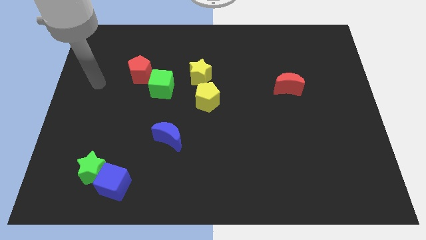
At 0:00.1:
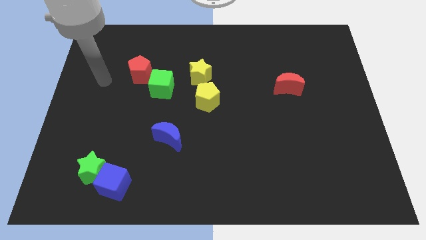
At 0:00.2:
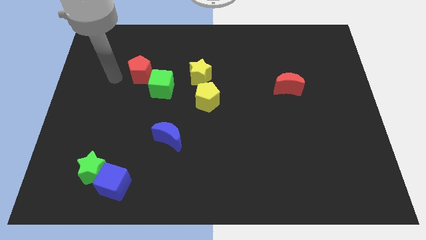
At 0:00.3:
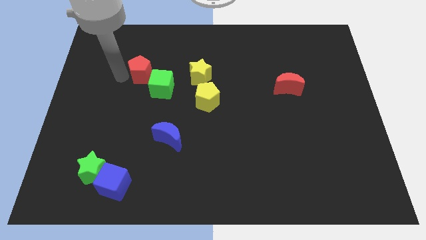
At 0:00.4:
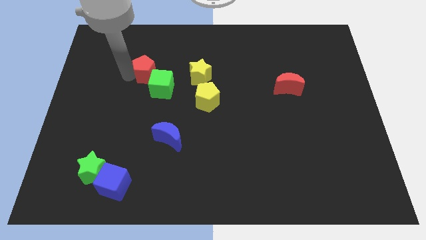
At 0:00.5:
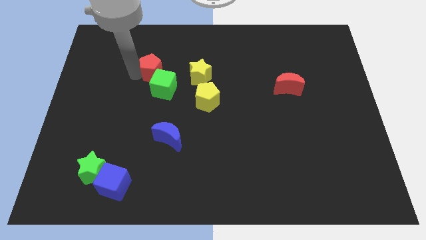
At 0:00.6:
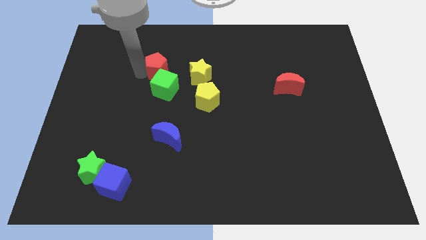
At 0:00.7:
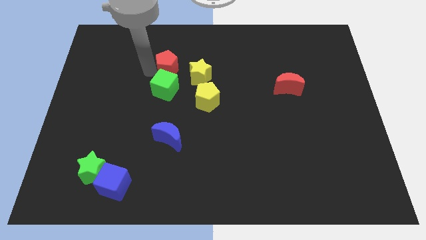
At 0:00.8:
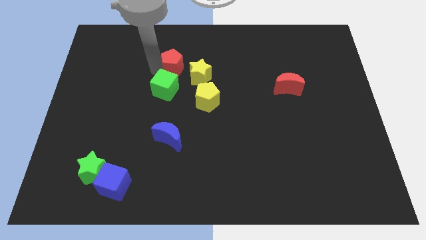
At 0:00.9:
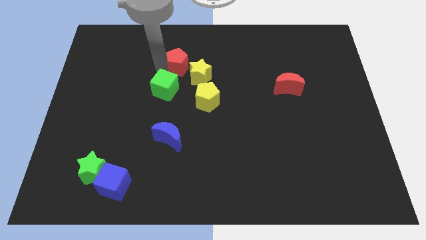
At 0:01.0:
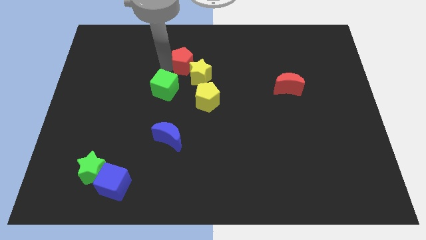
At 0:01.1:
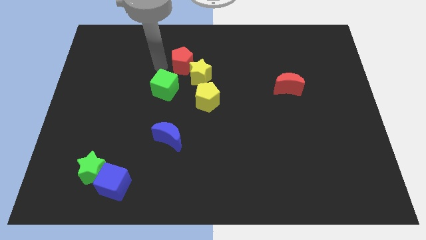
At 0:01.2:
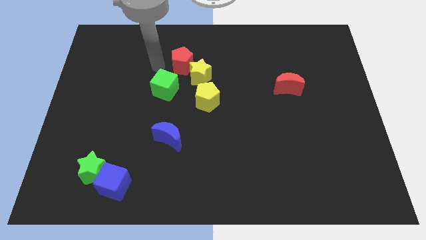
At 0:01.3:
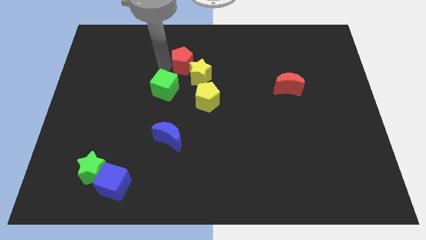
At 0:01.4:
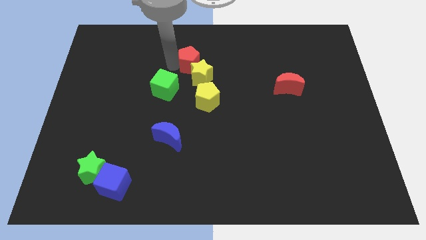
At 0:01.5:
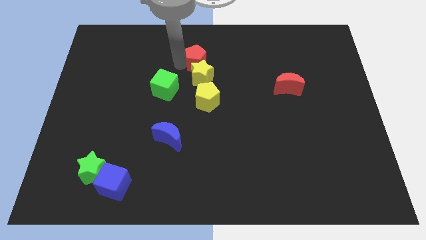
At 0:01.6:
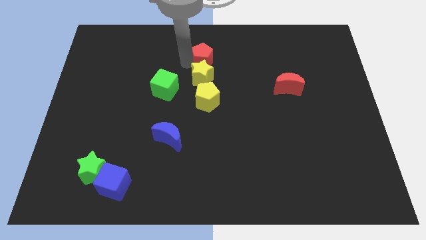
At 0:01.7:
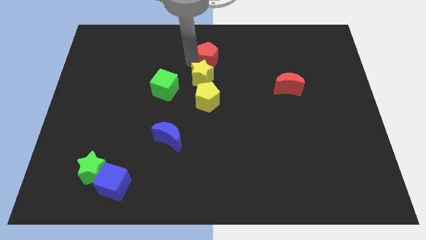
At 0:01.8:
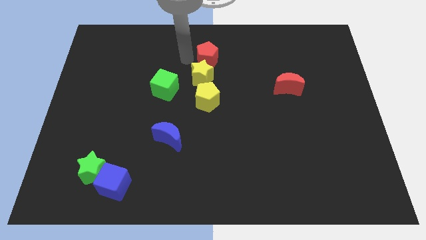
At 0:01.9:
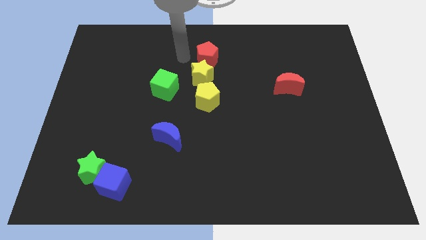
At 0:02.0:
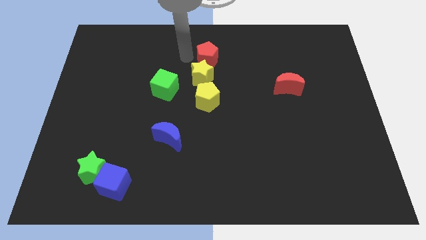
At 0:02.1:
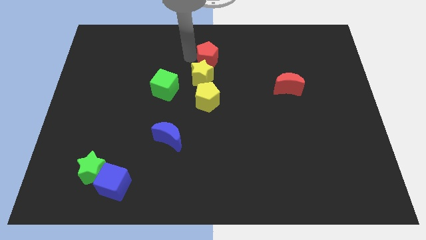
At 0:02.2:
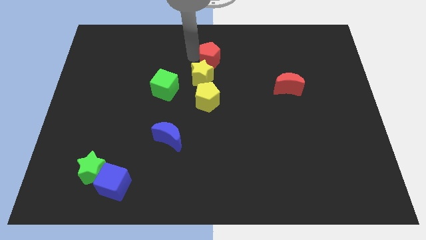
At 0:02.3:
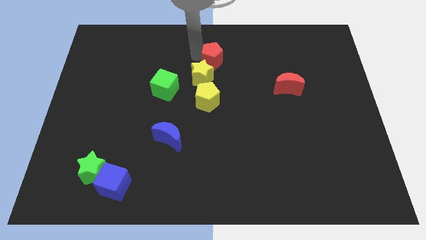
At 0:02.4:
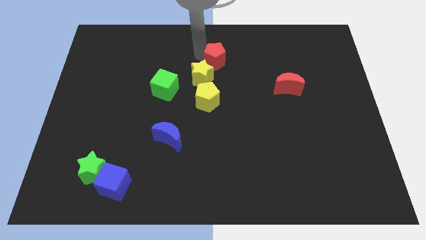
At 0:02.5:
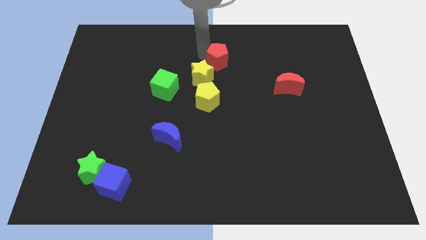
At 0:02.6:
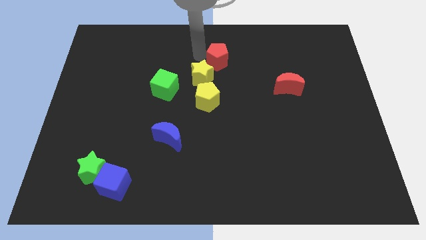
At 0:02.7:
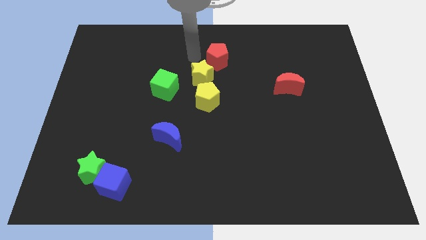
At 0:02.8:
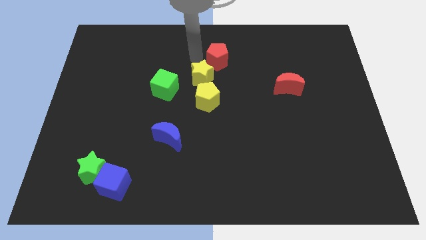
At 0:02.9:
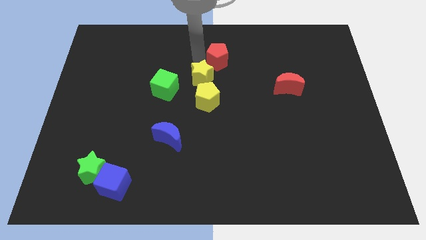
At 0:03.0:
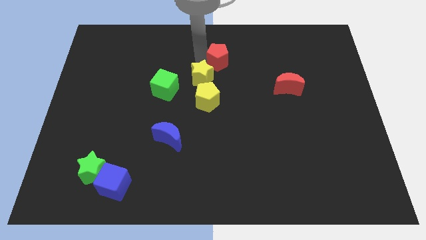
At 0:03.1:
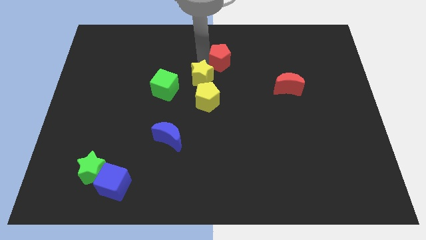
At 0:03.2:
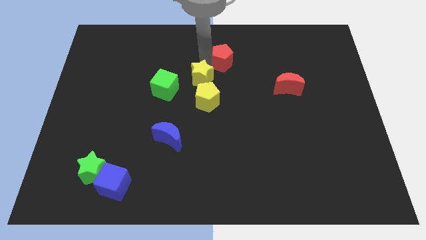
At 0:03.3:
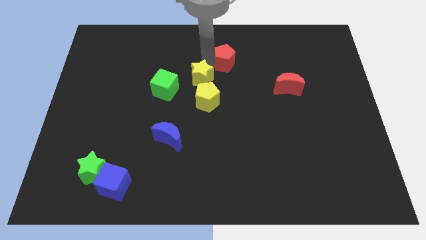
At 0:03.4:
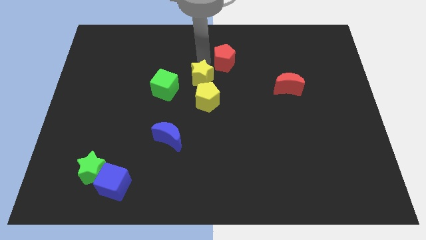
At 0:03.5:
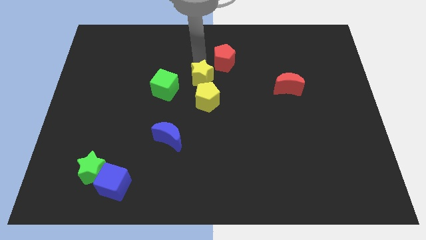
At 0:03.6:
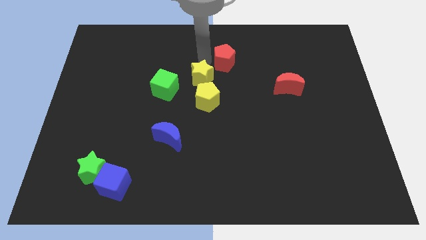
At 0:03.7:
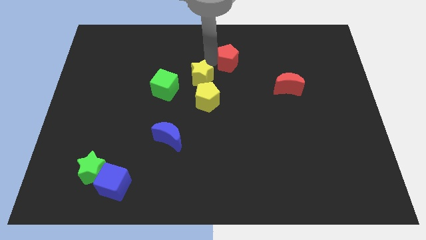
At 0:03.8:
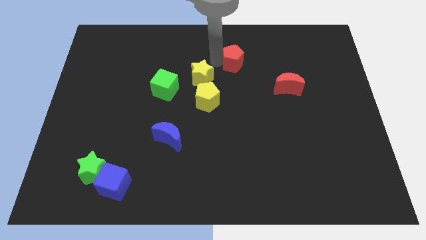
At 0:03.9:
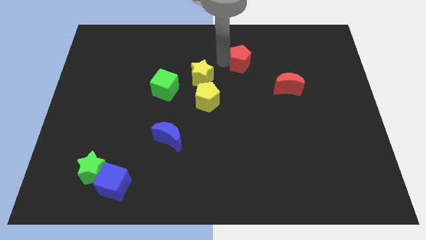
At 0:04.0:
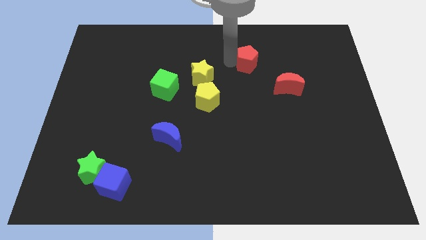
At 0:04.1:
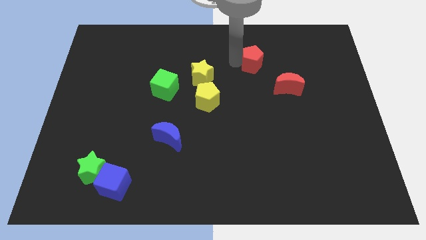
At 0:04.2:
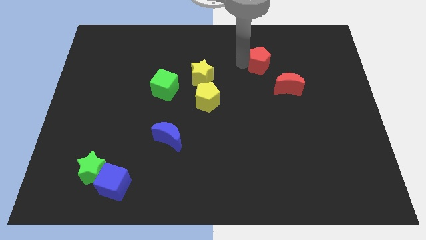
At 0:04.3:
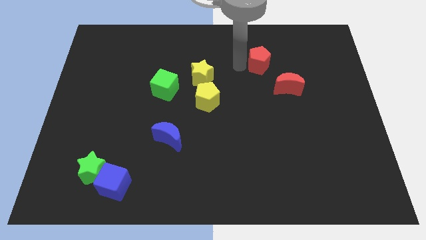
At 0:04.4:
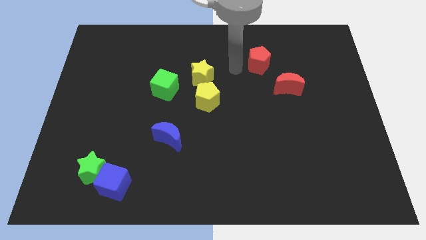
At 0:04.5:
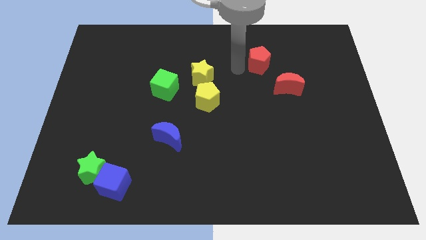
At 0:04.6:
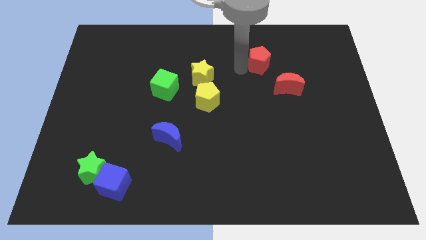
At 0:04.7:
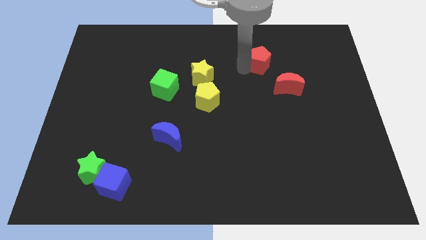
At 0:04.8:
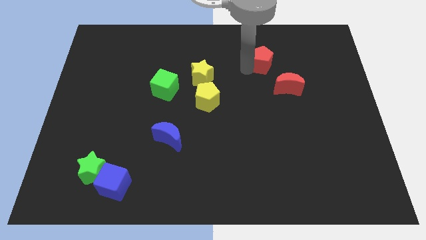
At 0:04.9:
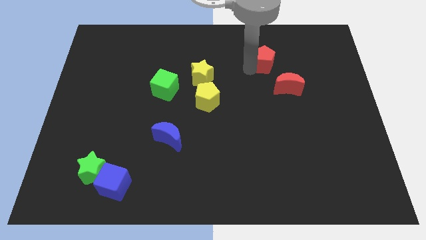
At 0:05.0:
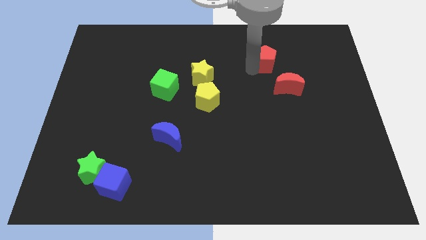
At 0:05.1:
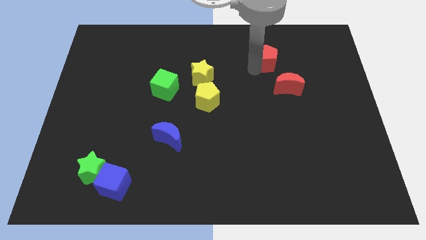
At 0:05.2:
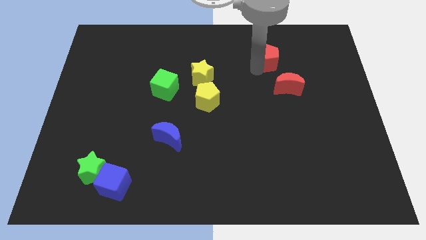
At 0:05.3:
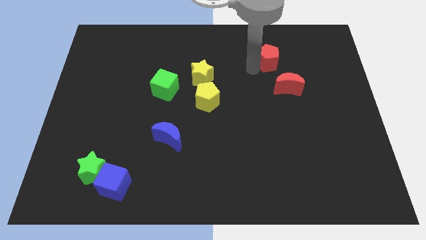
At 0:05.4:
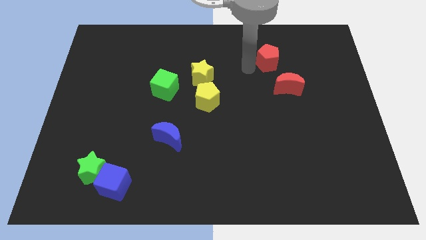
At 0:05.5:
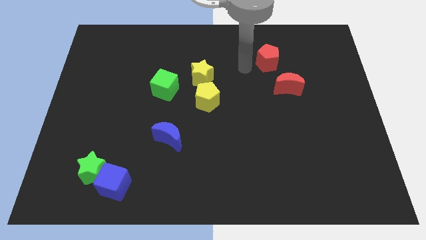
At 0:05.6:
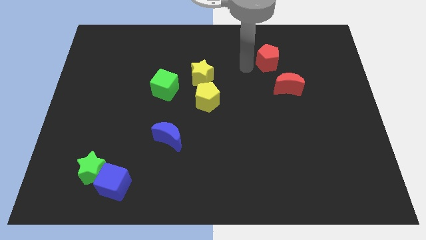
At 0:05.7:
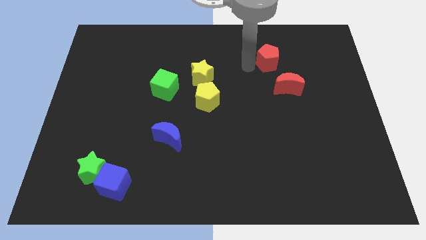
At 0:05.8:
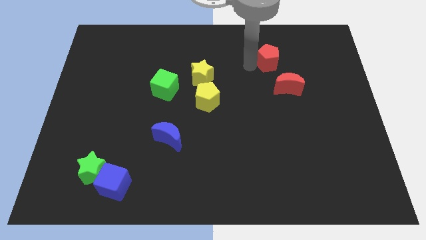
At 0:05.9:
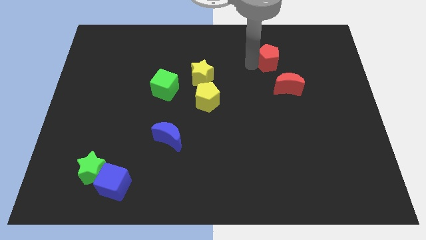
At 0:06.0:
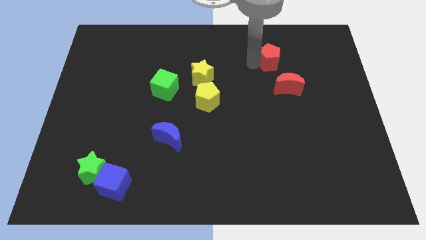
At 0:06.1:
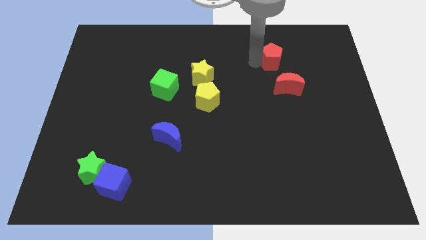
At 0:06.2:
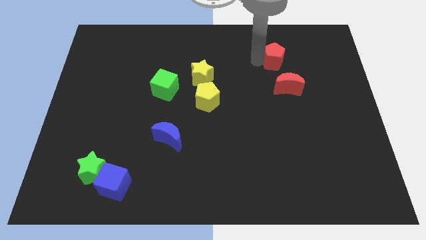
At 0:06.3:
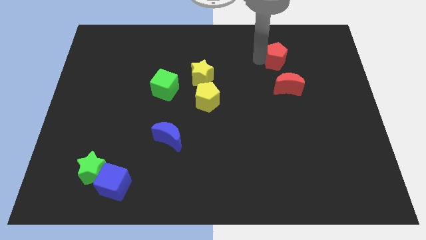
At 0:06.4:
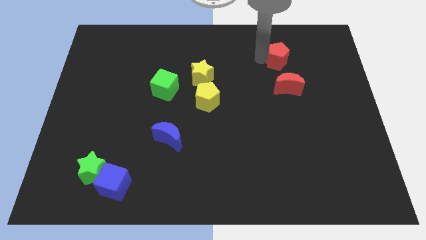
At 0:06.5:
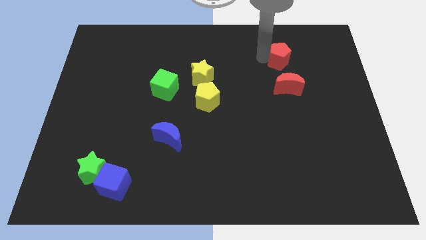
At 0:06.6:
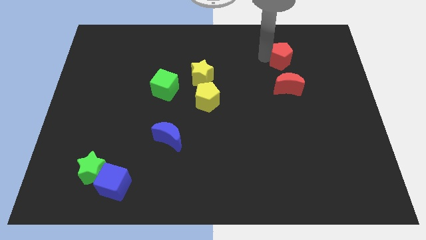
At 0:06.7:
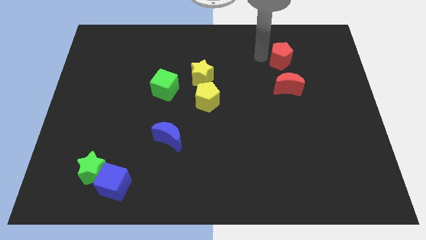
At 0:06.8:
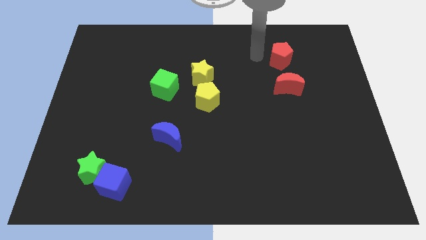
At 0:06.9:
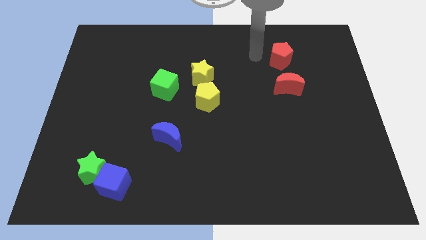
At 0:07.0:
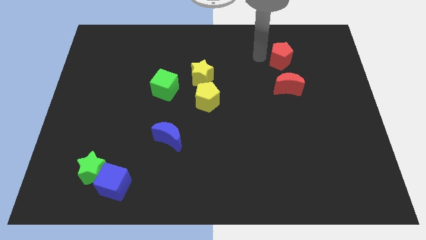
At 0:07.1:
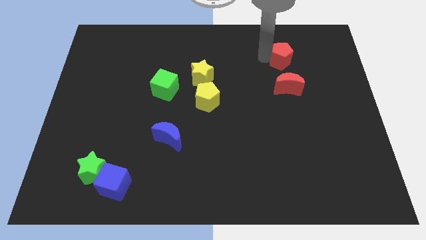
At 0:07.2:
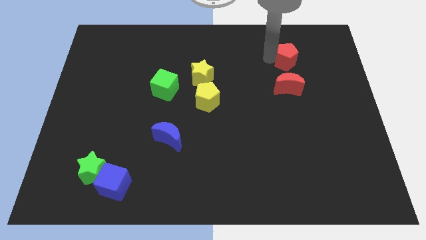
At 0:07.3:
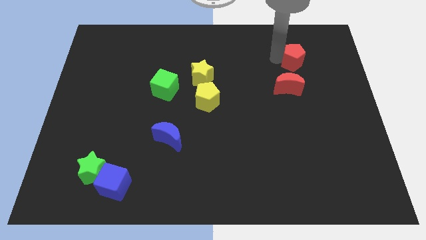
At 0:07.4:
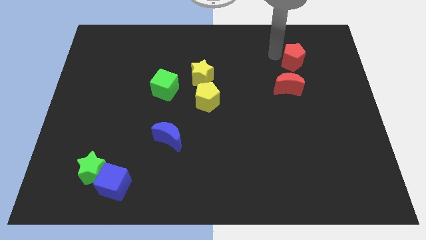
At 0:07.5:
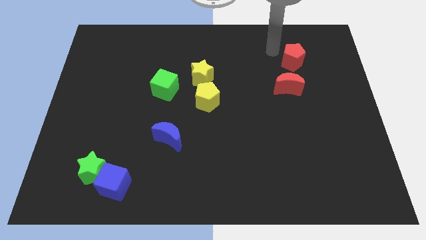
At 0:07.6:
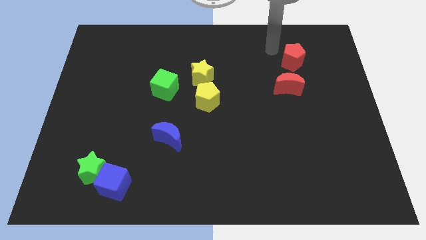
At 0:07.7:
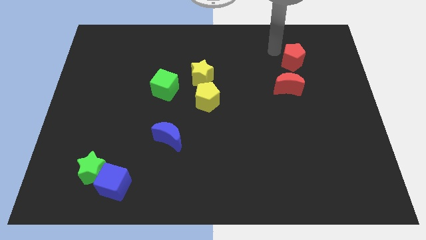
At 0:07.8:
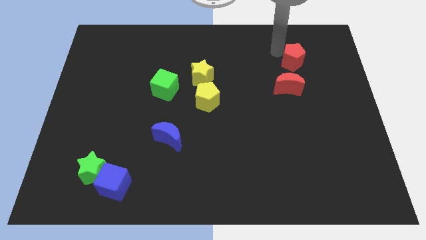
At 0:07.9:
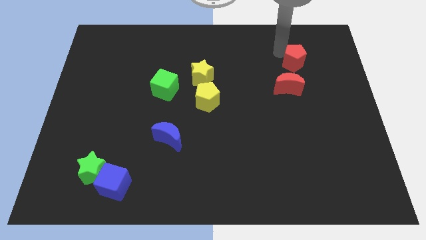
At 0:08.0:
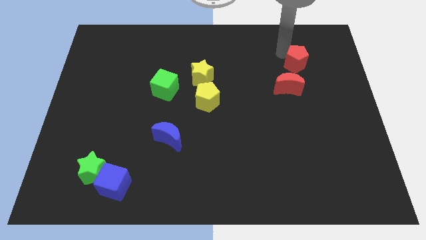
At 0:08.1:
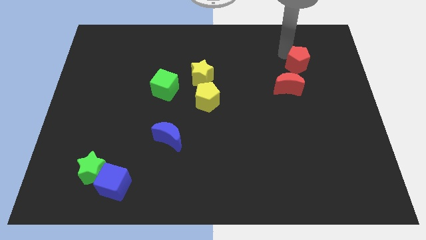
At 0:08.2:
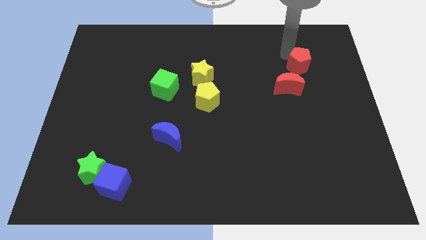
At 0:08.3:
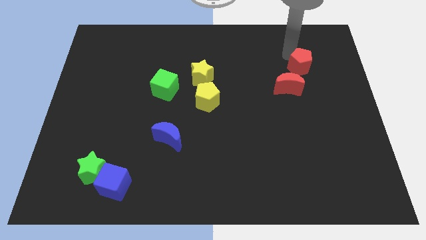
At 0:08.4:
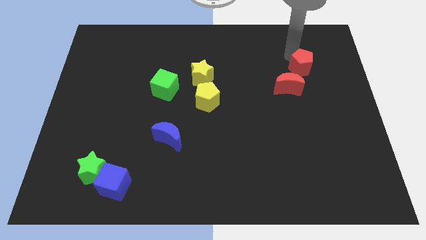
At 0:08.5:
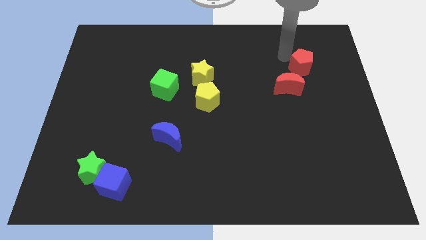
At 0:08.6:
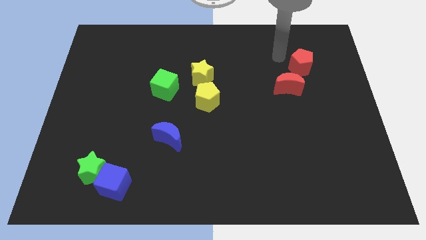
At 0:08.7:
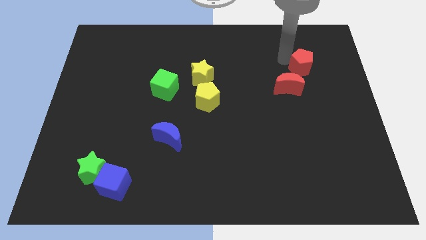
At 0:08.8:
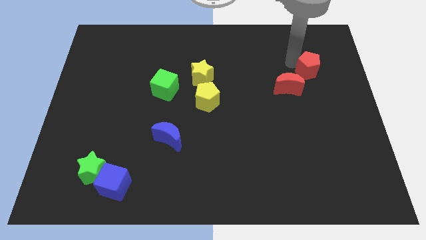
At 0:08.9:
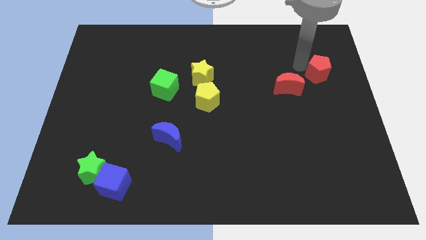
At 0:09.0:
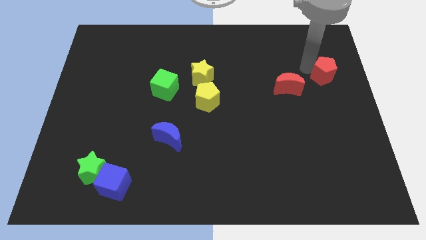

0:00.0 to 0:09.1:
put the red pentagon to the center right
